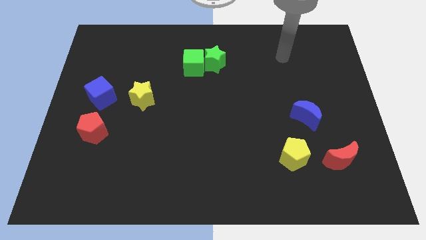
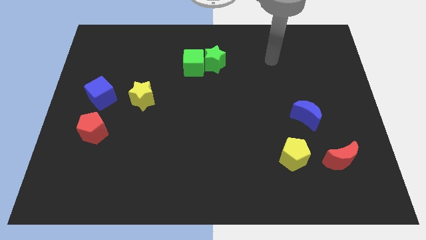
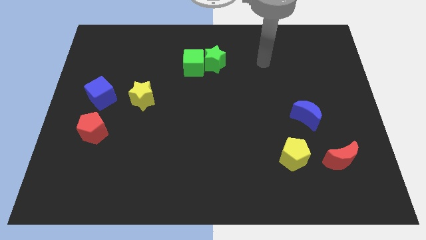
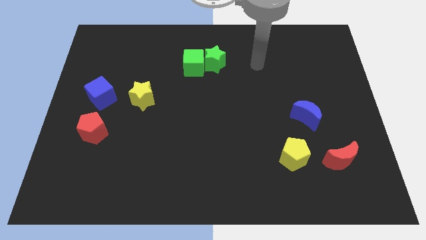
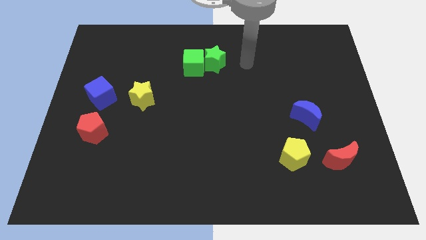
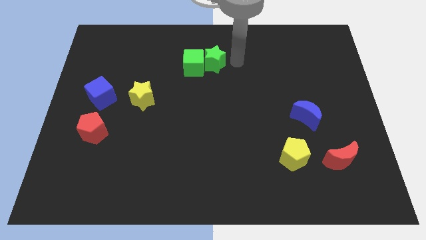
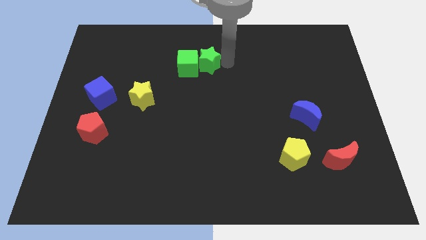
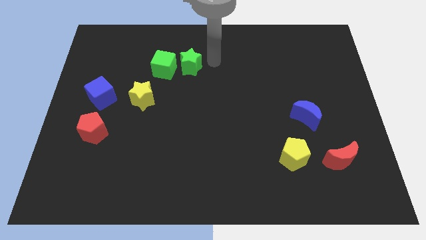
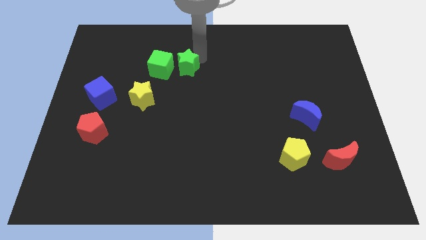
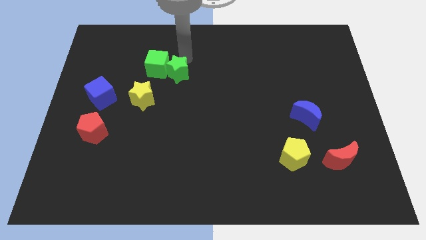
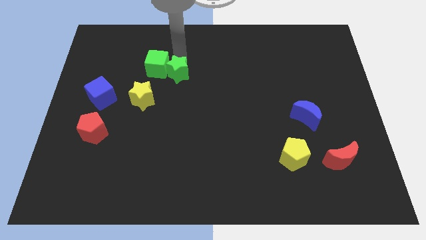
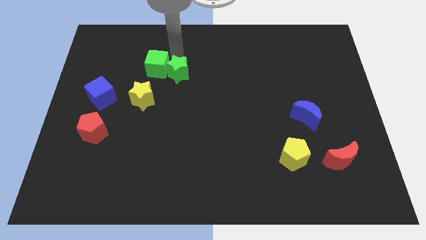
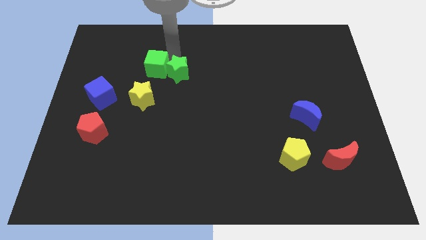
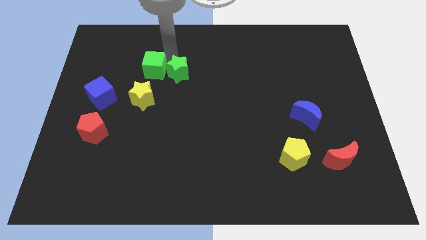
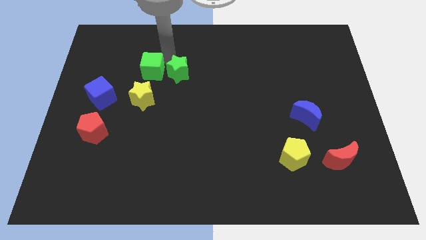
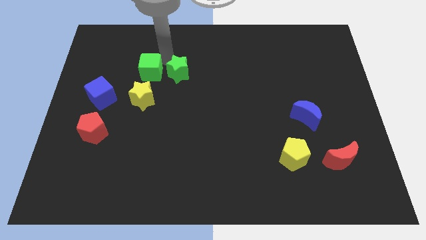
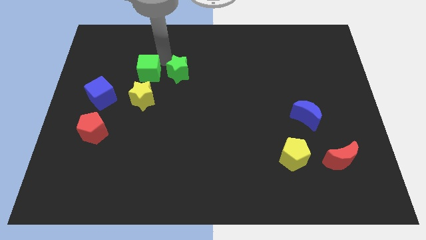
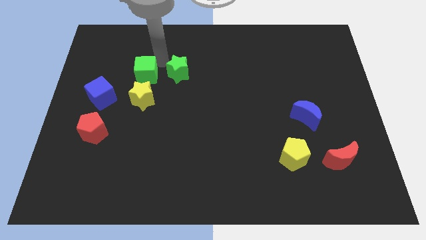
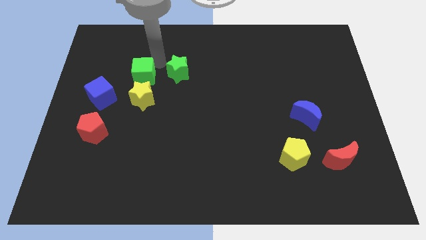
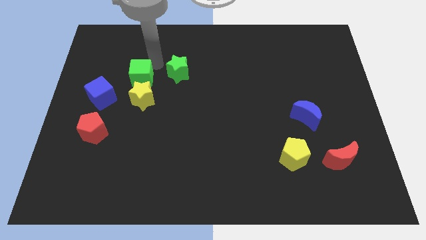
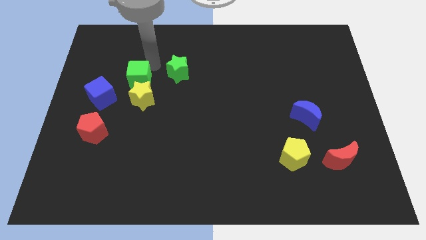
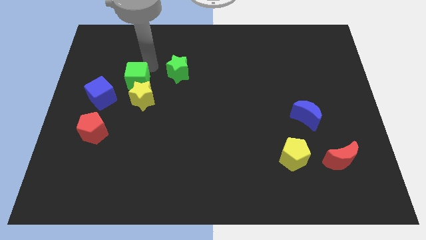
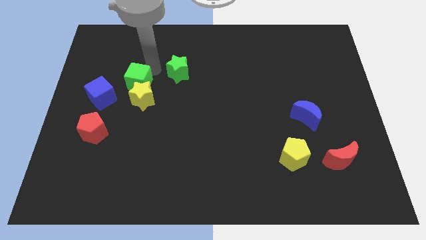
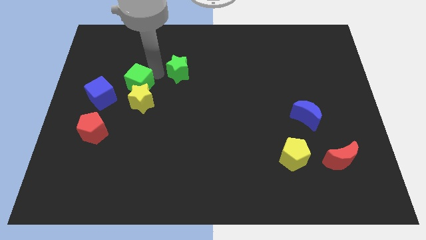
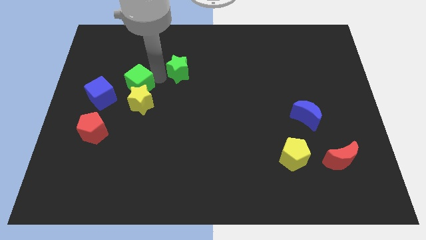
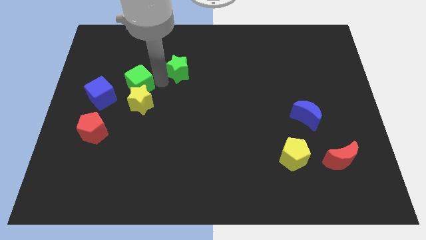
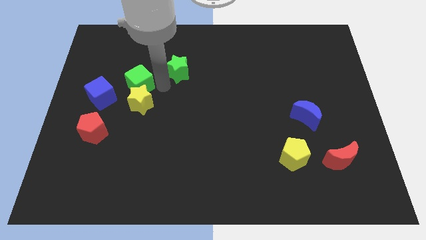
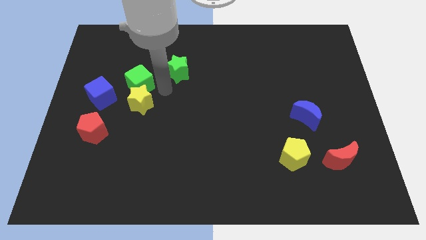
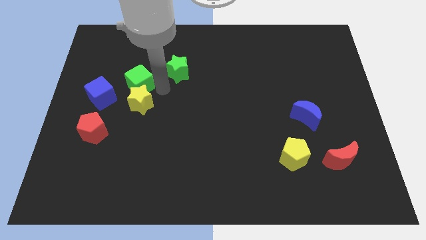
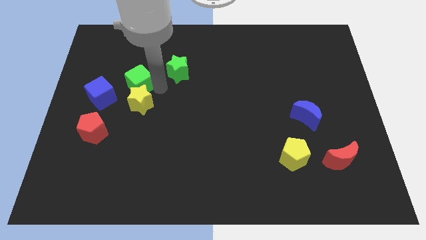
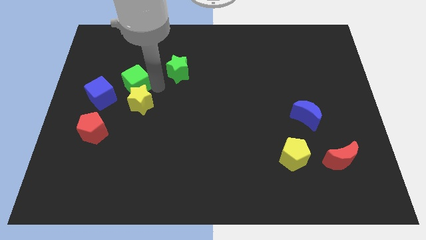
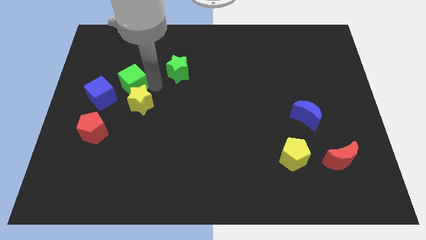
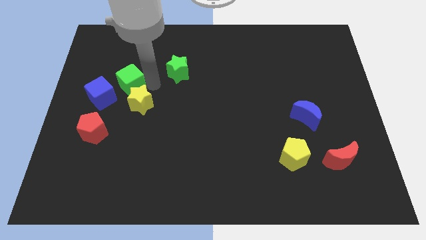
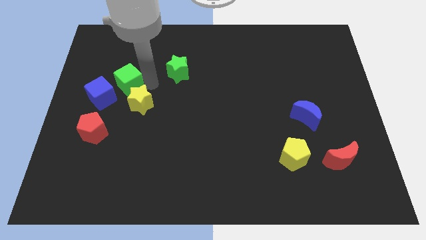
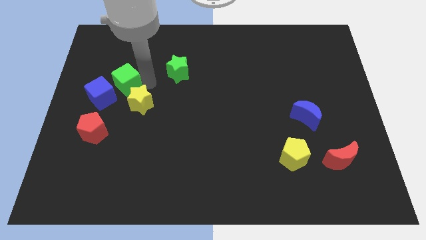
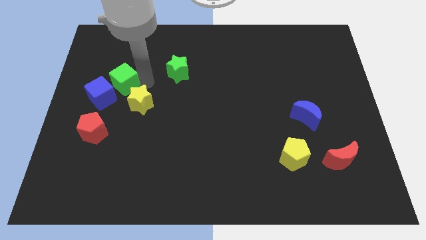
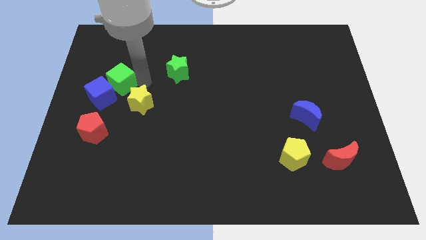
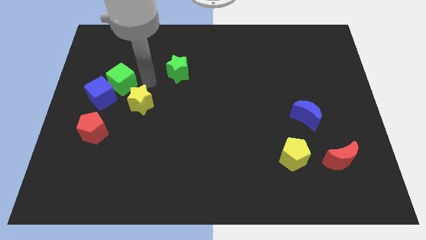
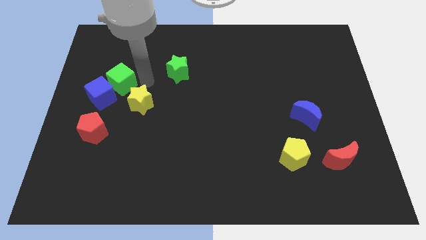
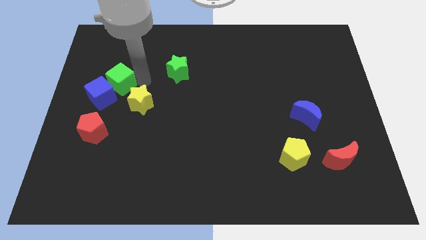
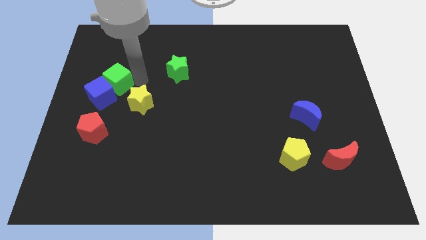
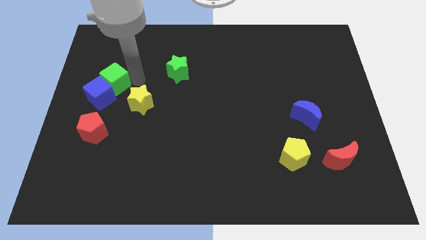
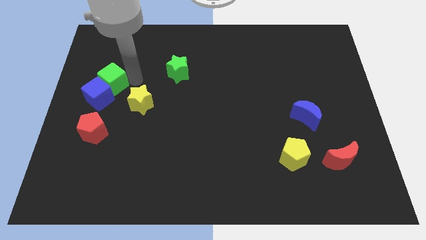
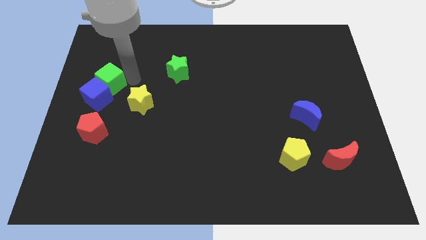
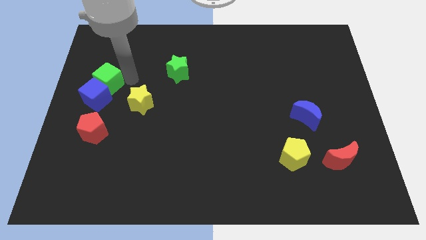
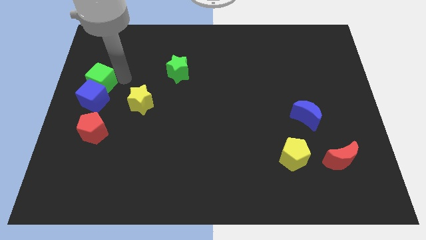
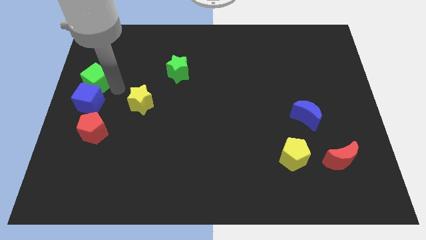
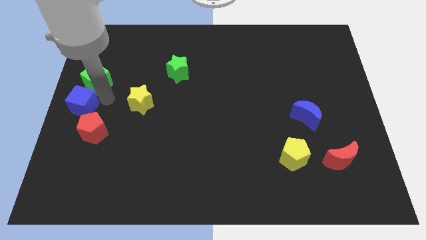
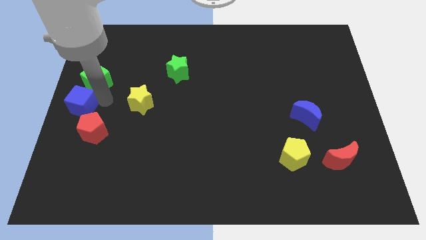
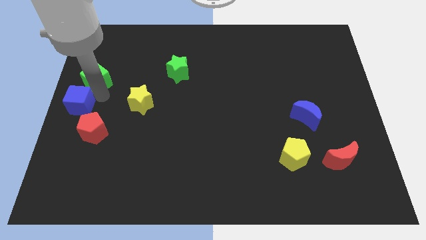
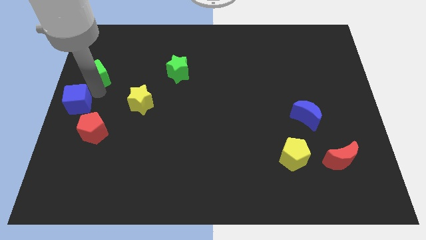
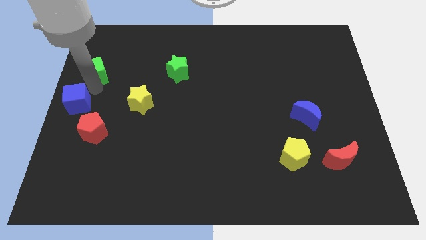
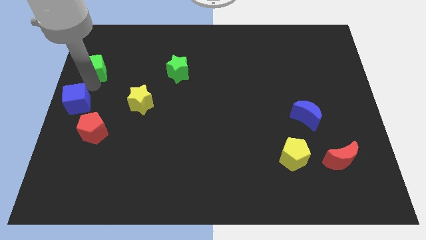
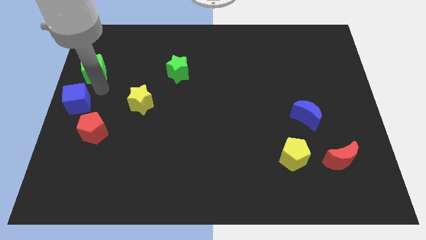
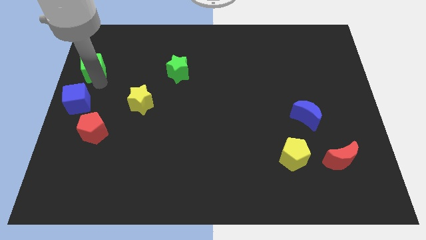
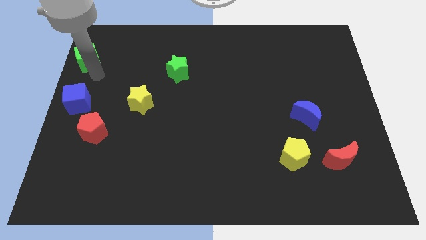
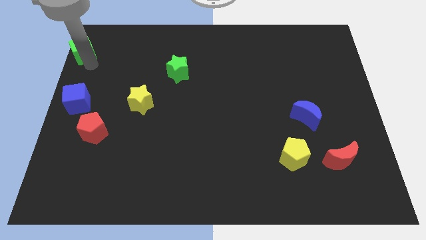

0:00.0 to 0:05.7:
put the green cube to the upper left corner

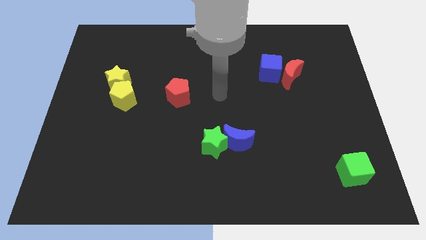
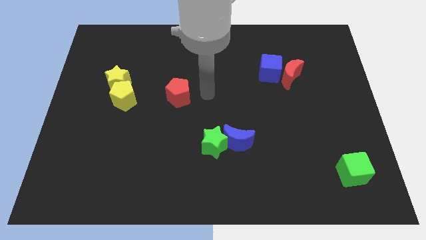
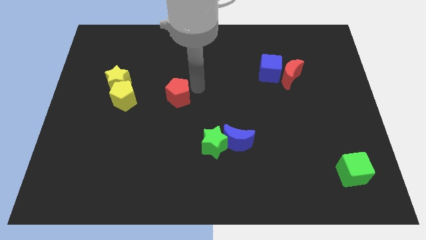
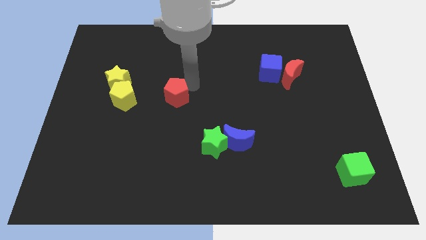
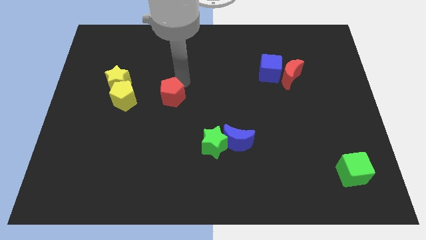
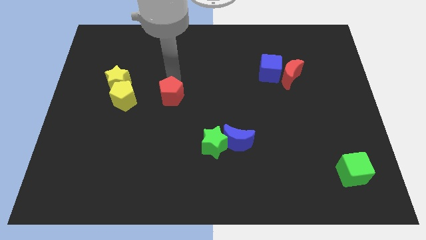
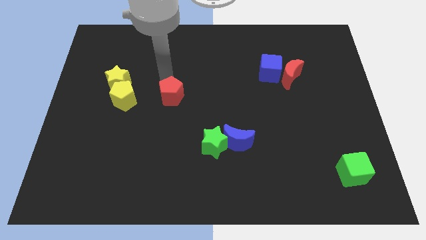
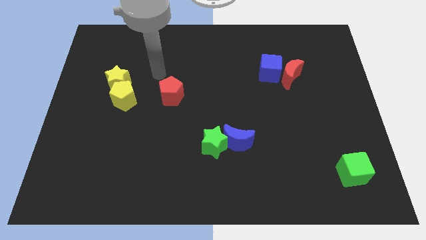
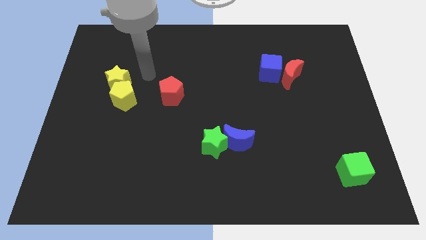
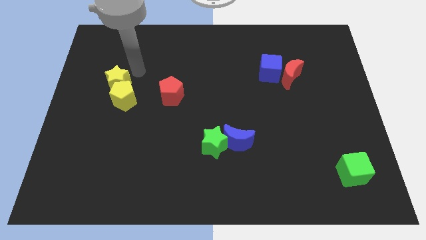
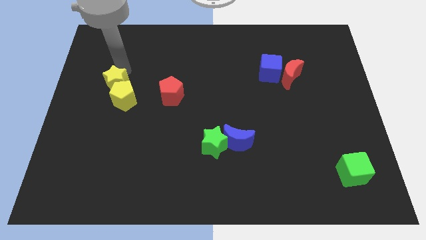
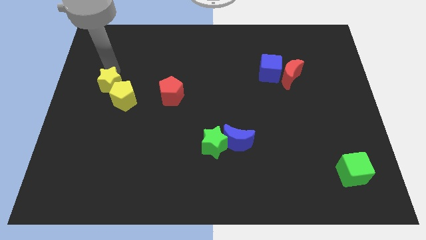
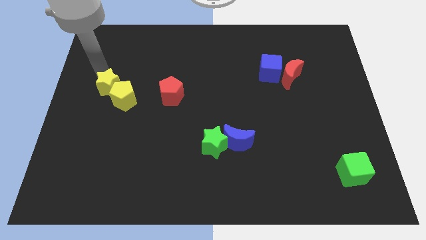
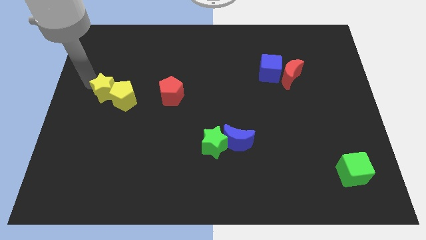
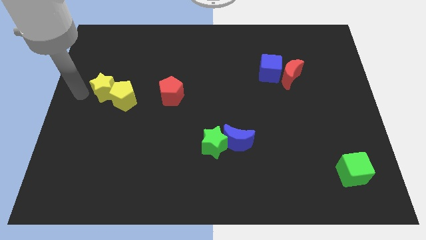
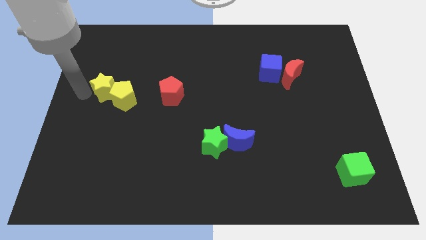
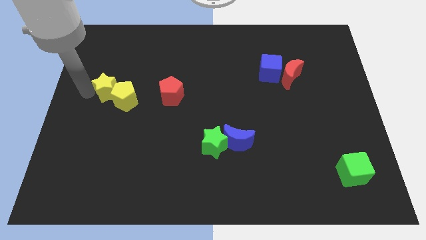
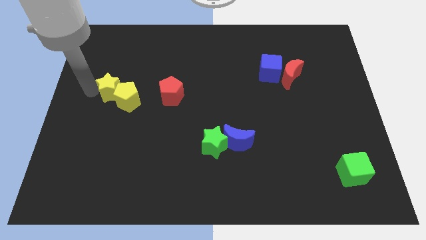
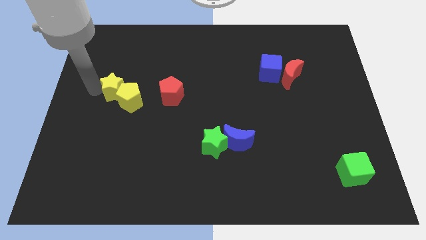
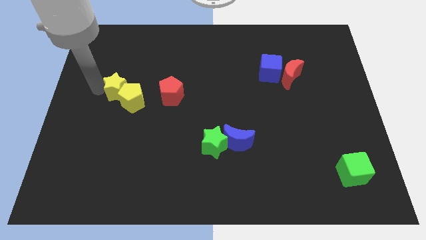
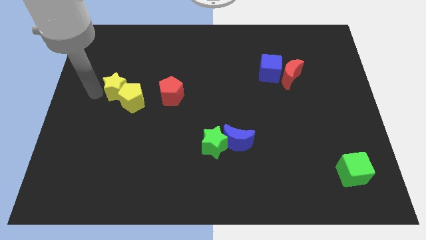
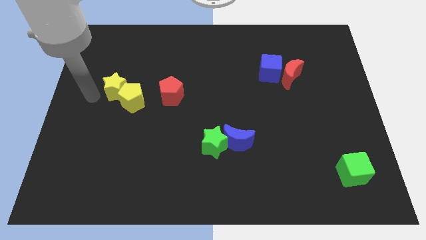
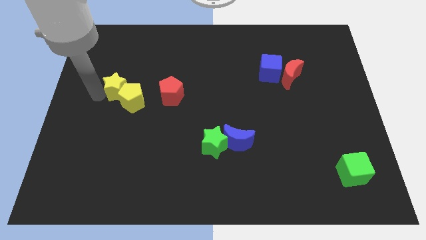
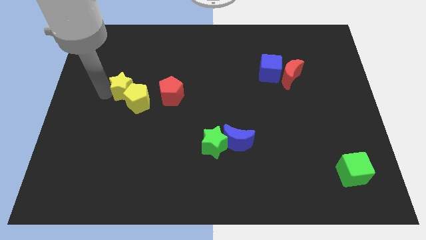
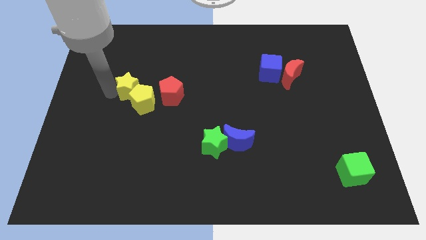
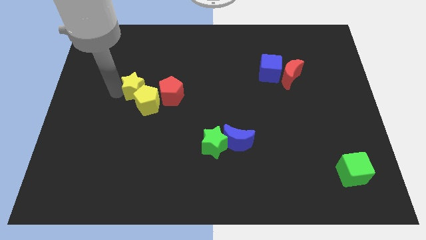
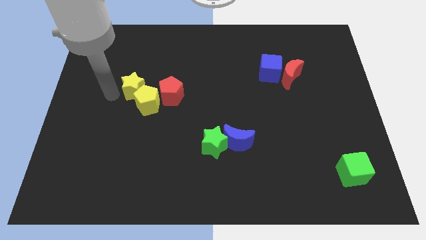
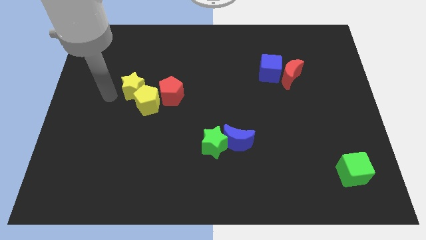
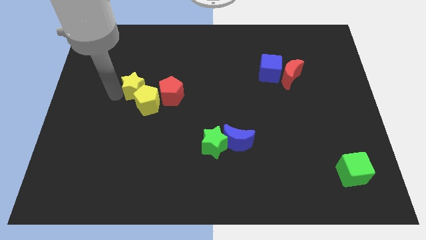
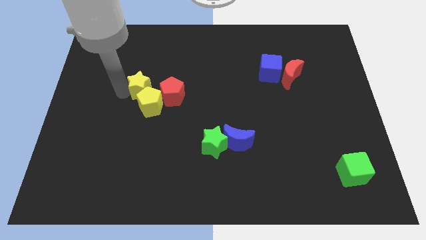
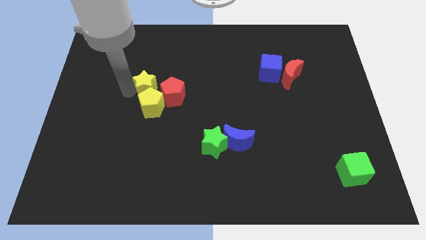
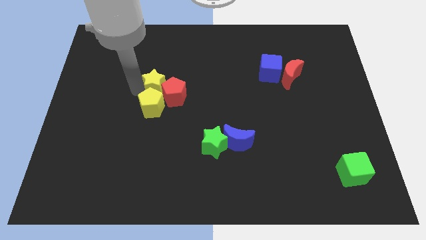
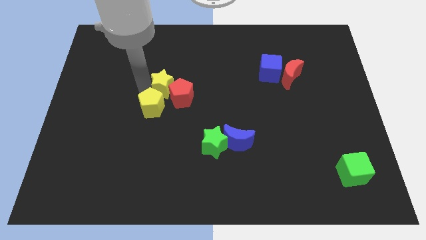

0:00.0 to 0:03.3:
put the yellow star to the middle of the board
